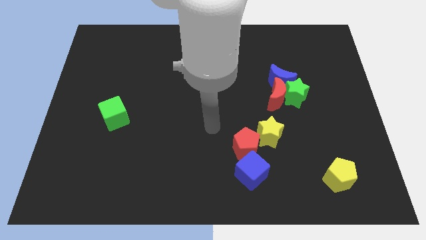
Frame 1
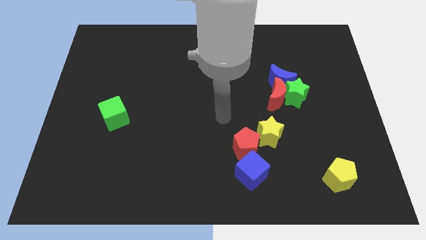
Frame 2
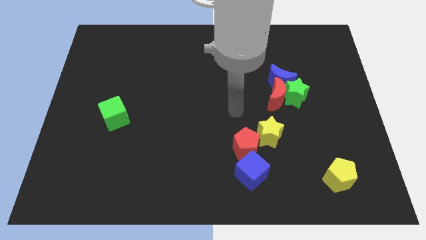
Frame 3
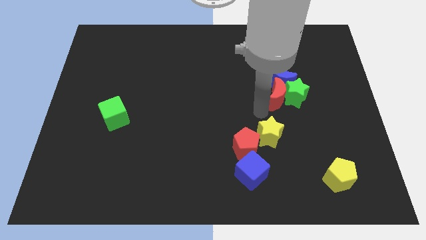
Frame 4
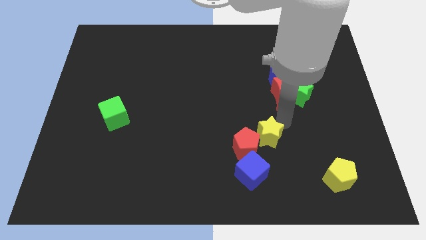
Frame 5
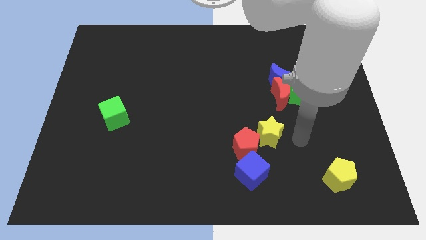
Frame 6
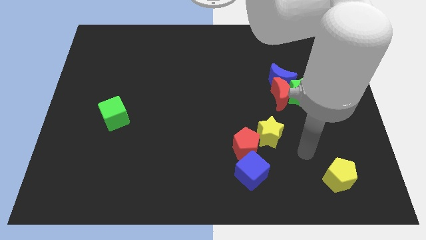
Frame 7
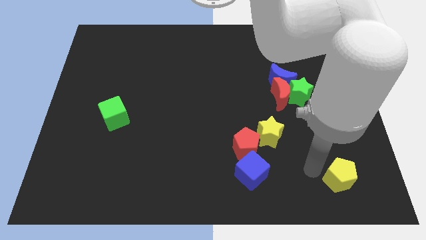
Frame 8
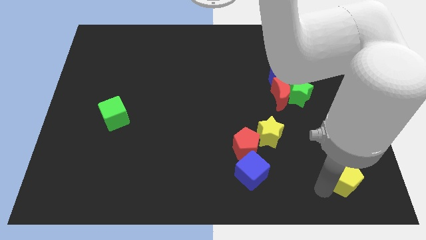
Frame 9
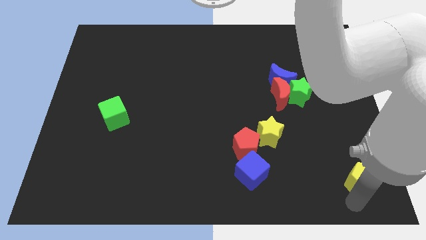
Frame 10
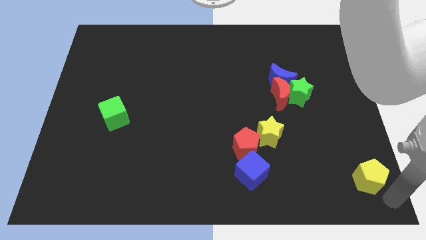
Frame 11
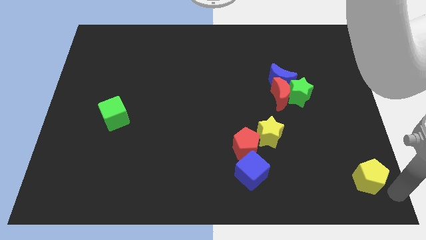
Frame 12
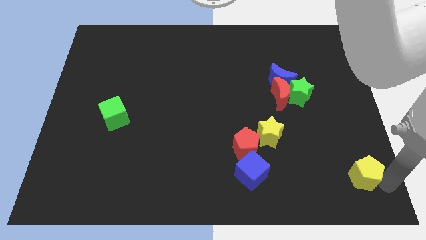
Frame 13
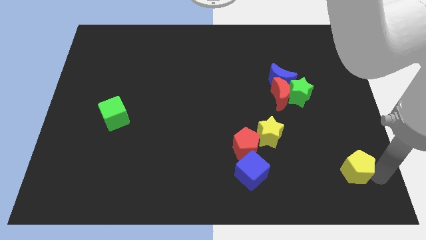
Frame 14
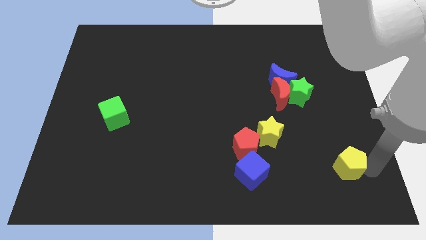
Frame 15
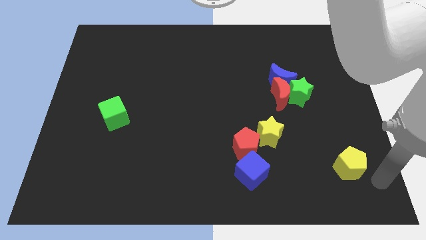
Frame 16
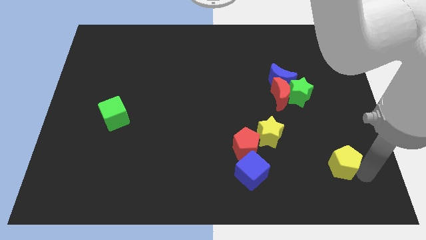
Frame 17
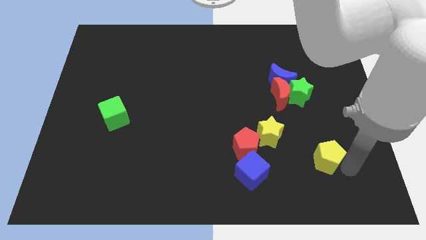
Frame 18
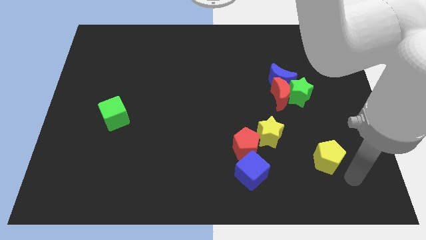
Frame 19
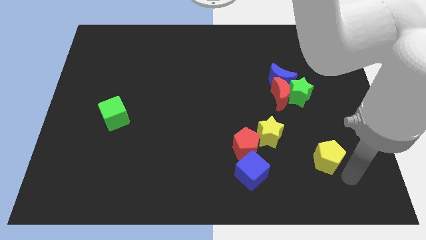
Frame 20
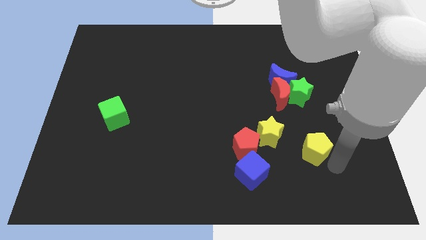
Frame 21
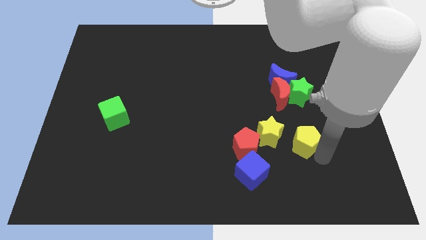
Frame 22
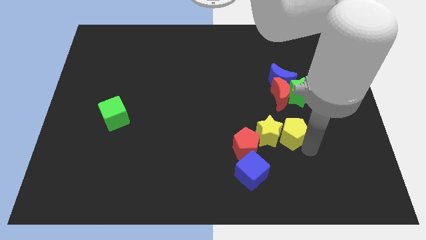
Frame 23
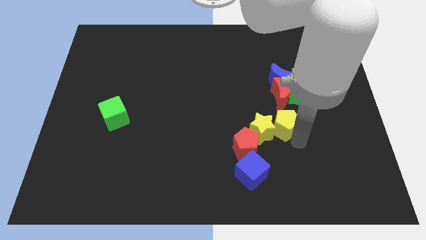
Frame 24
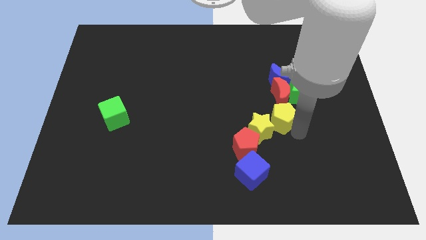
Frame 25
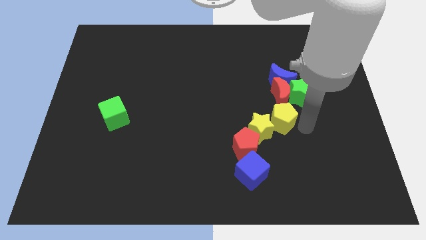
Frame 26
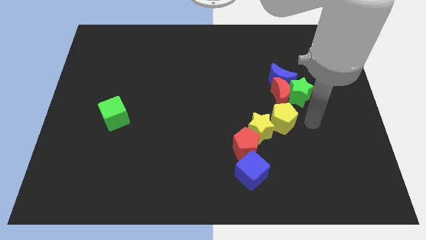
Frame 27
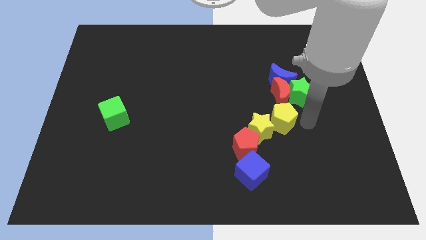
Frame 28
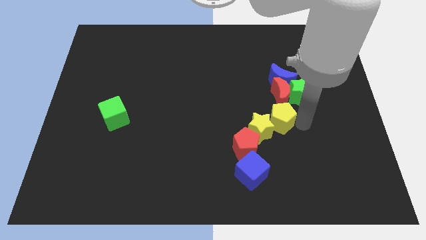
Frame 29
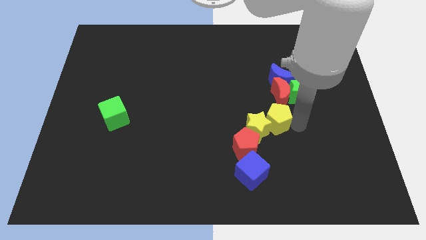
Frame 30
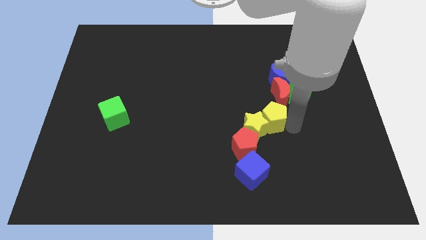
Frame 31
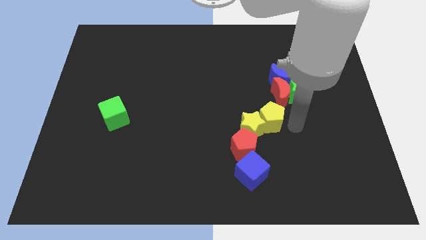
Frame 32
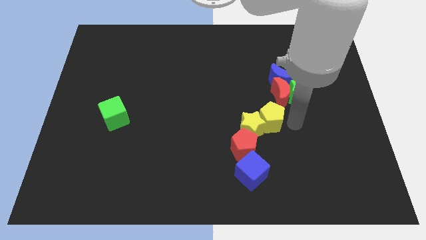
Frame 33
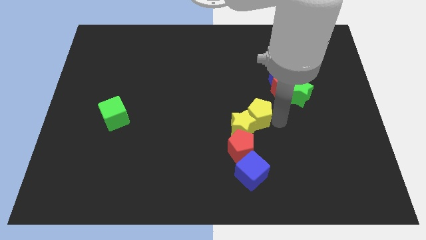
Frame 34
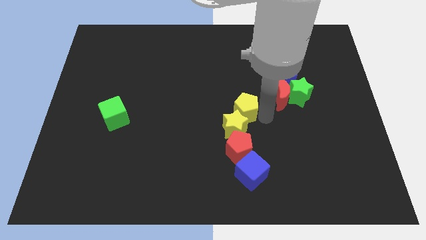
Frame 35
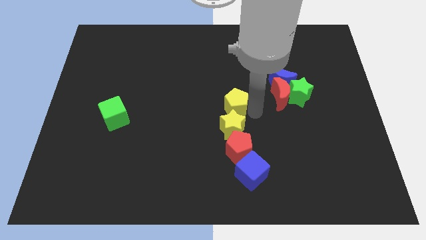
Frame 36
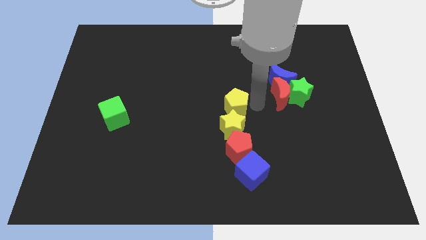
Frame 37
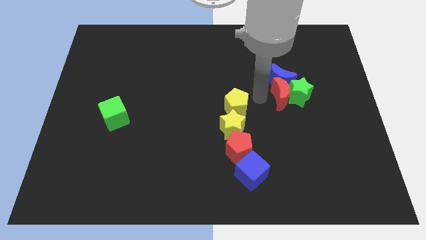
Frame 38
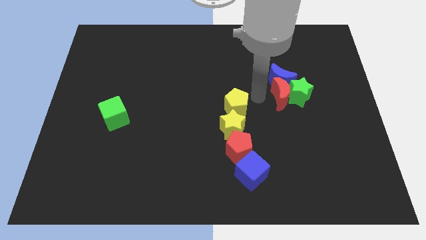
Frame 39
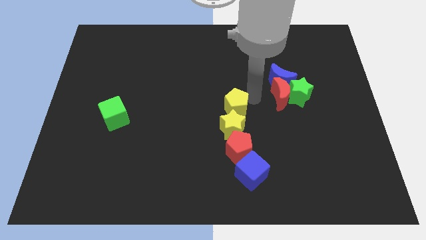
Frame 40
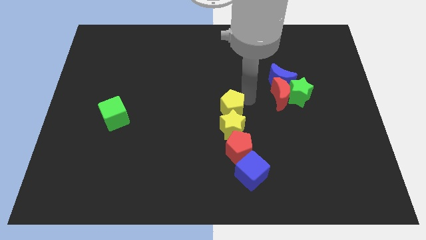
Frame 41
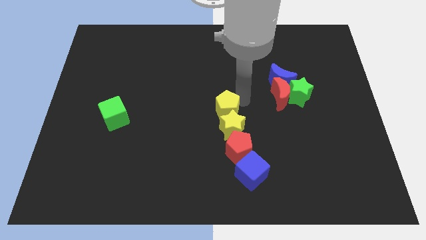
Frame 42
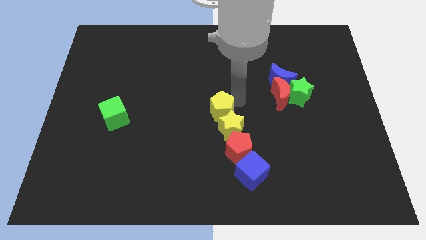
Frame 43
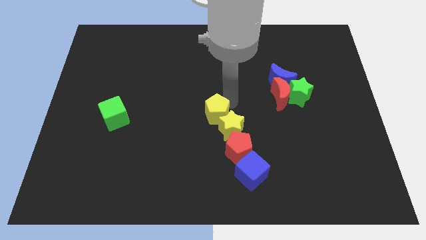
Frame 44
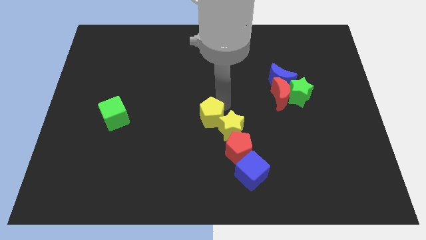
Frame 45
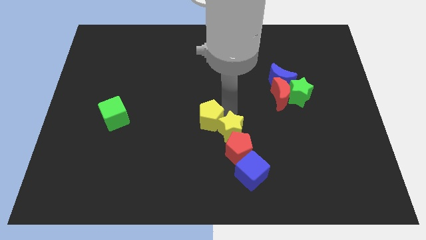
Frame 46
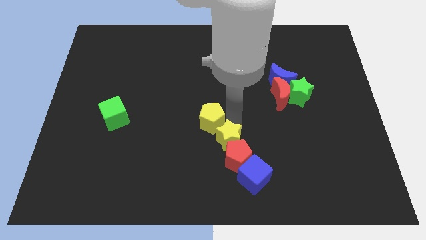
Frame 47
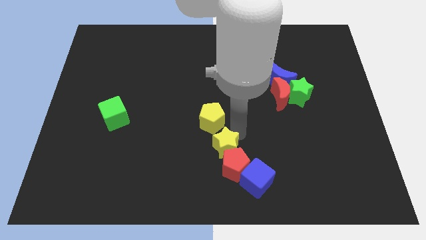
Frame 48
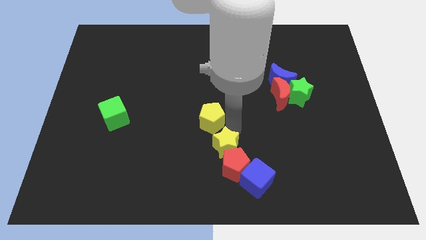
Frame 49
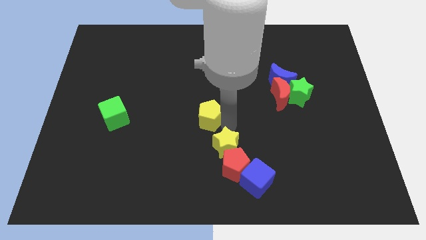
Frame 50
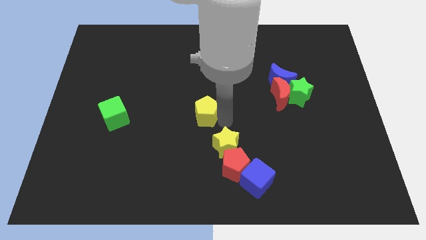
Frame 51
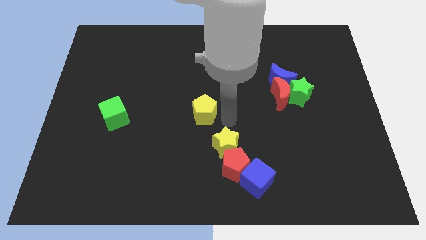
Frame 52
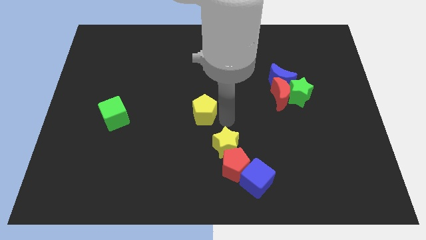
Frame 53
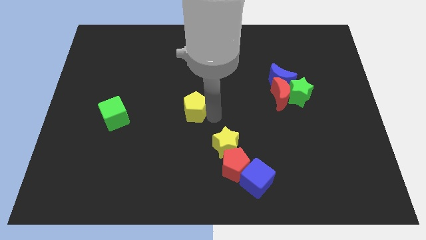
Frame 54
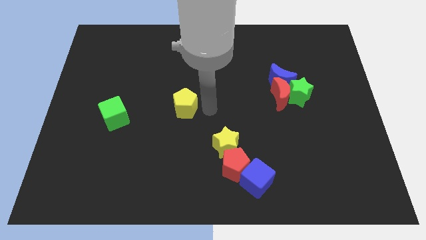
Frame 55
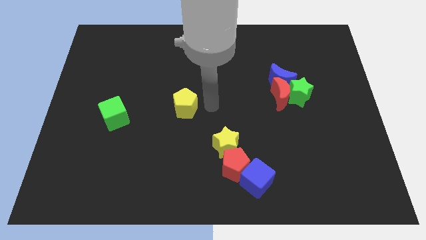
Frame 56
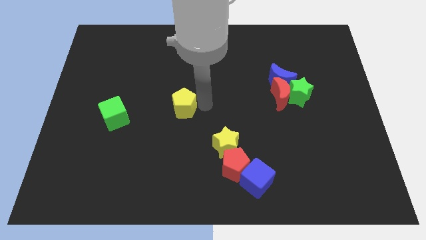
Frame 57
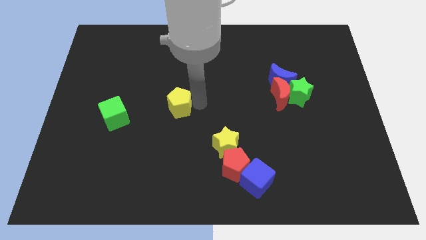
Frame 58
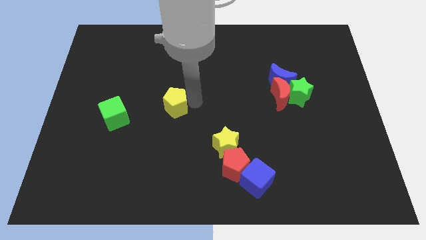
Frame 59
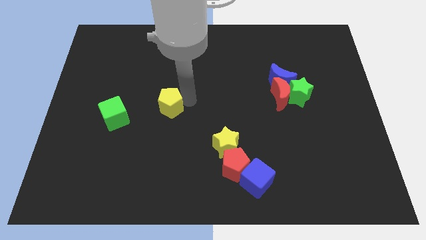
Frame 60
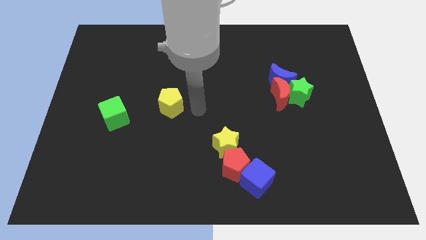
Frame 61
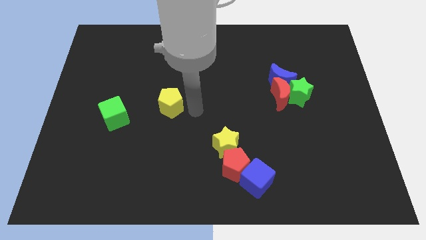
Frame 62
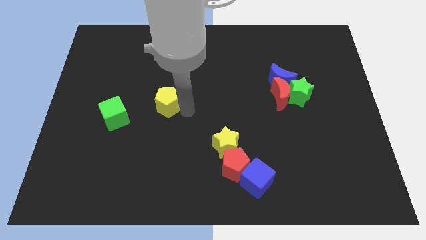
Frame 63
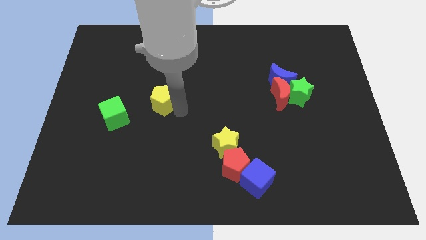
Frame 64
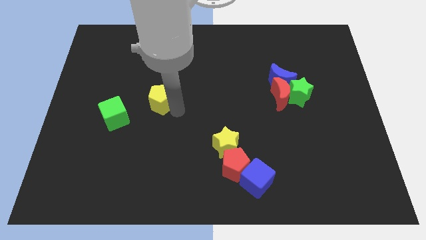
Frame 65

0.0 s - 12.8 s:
slide the yellow pentagon diagonally up and to the right of the green cube

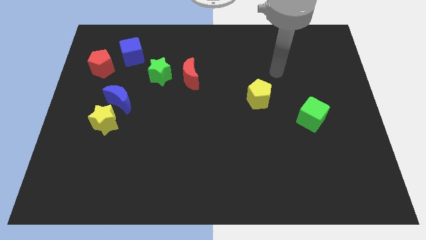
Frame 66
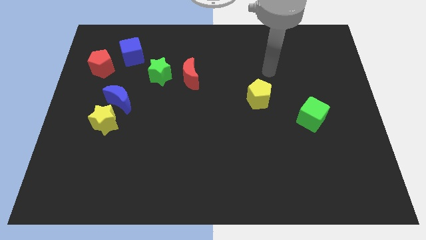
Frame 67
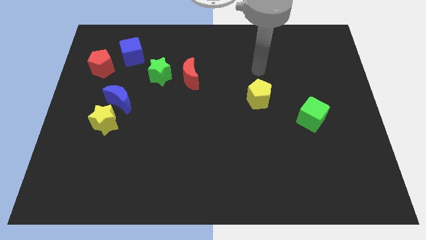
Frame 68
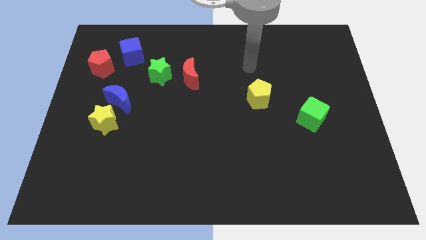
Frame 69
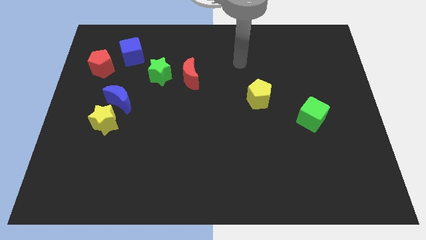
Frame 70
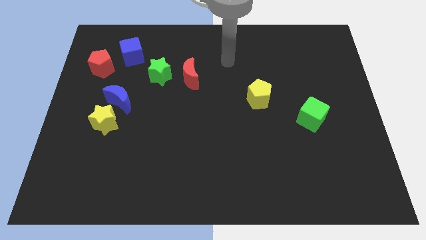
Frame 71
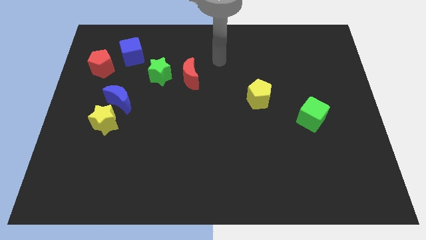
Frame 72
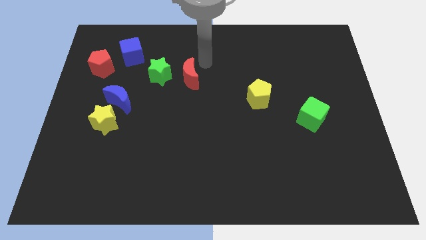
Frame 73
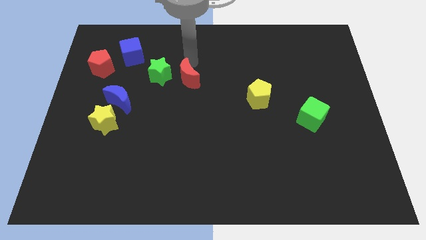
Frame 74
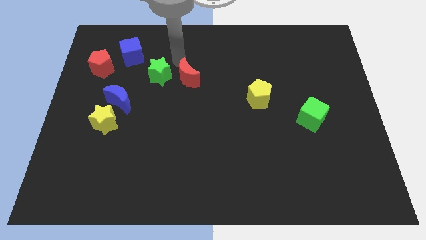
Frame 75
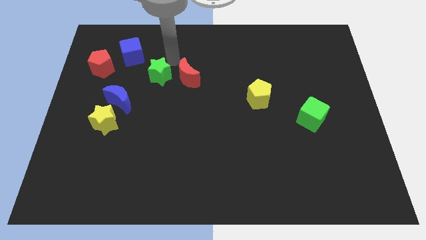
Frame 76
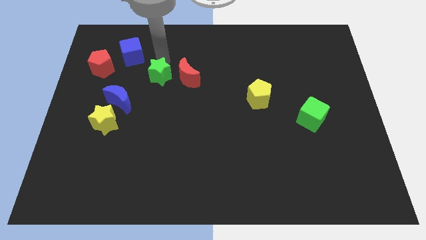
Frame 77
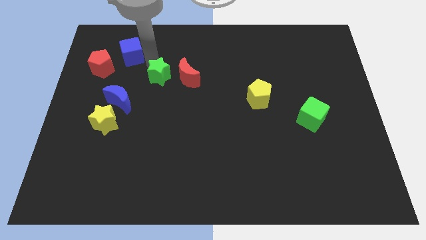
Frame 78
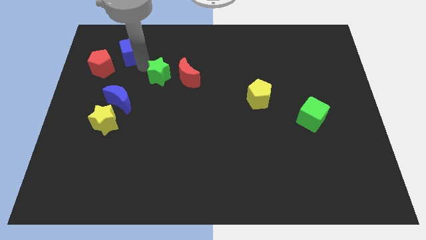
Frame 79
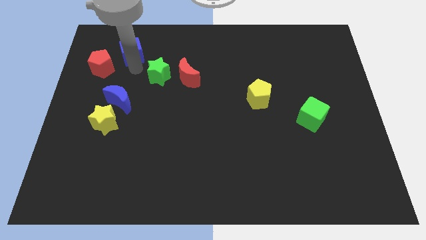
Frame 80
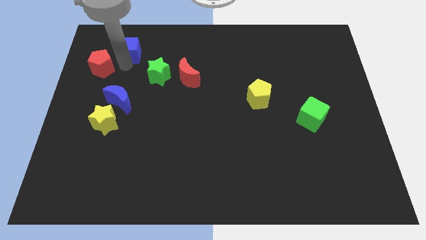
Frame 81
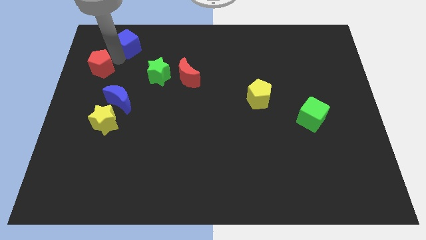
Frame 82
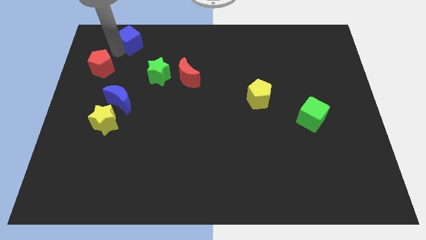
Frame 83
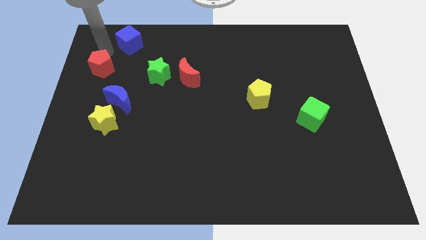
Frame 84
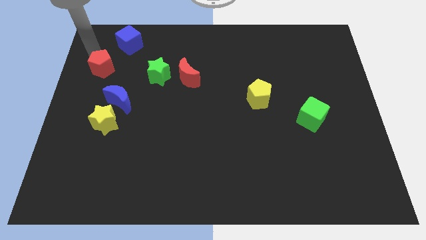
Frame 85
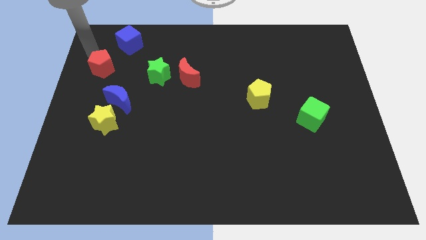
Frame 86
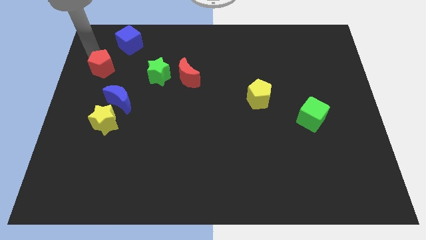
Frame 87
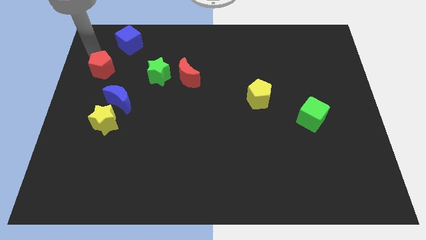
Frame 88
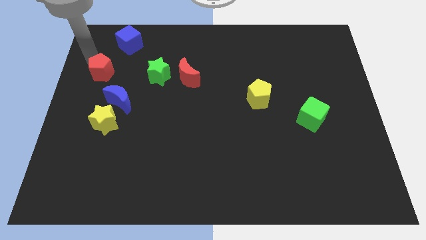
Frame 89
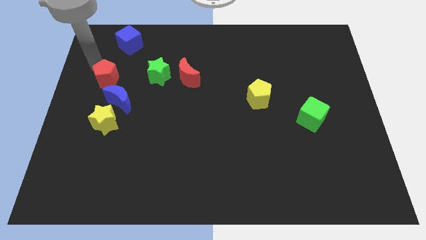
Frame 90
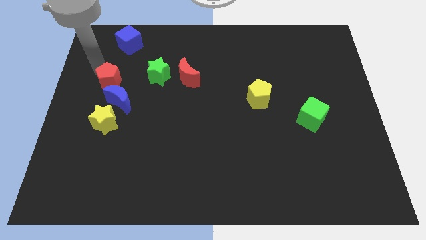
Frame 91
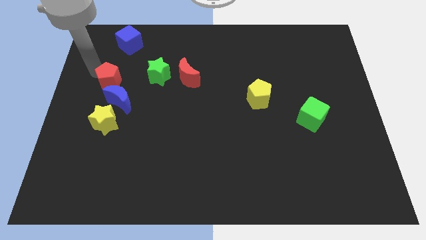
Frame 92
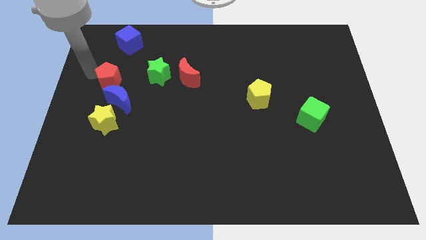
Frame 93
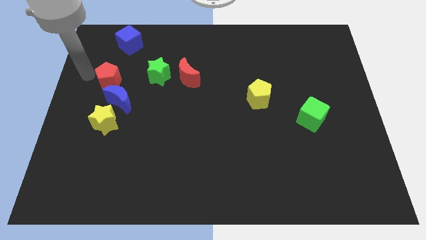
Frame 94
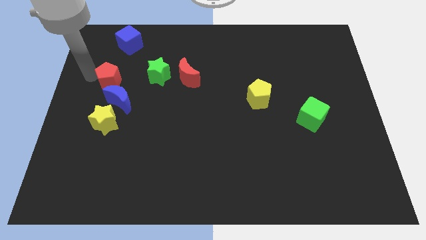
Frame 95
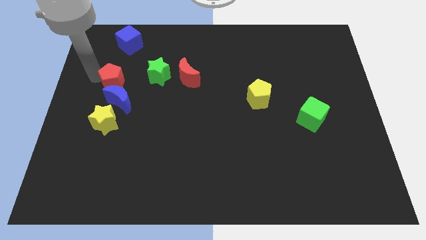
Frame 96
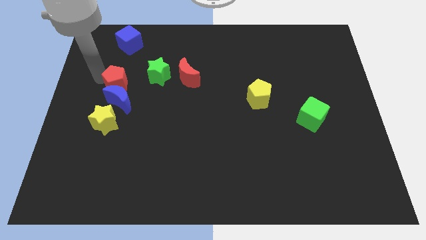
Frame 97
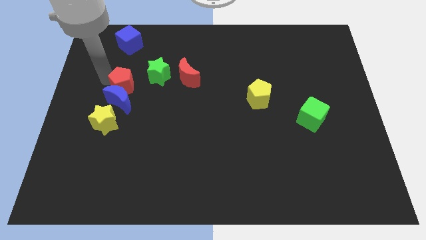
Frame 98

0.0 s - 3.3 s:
move the red pentagon to the bottom left side of the green star
